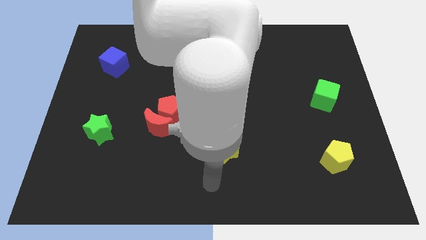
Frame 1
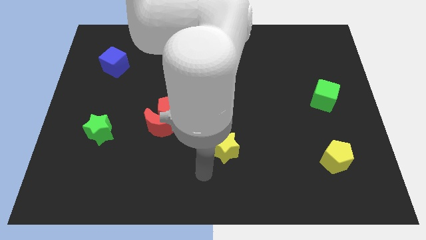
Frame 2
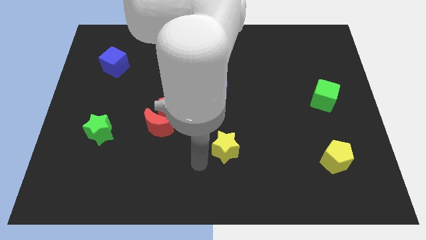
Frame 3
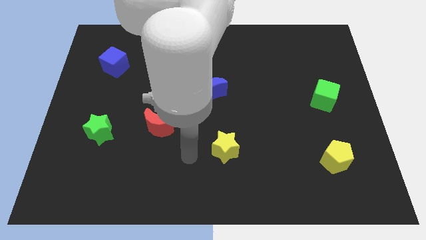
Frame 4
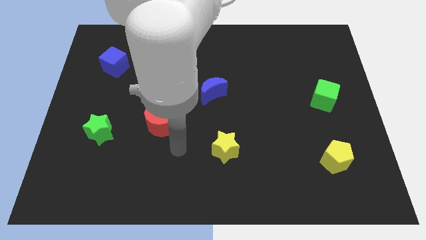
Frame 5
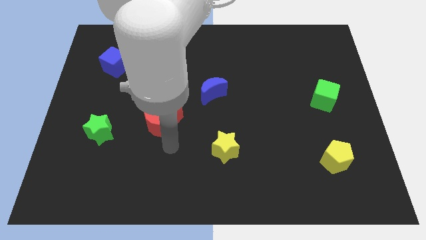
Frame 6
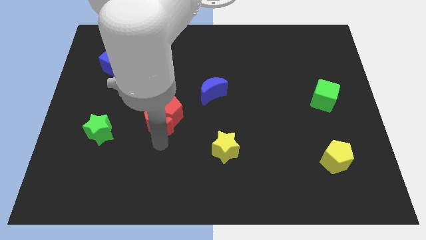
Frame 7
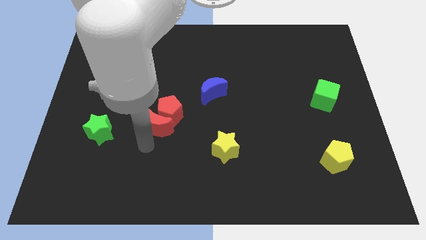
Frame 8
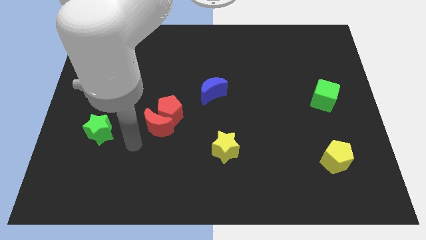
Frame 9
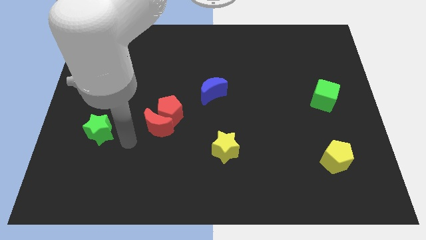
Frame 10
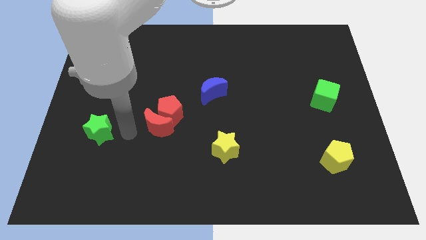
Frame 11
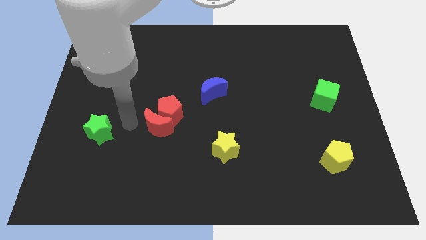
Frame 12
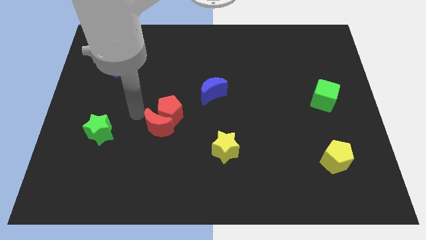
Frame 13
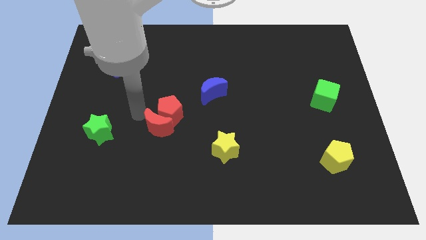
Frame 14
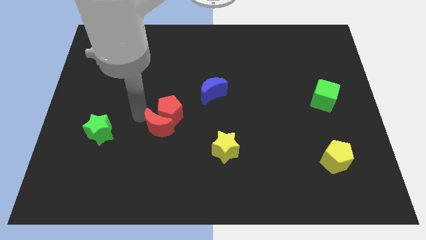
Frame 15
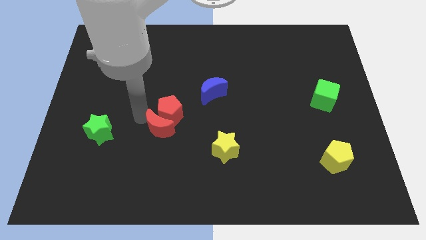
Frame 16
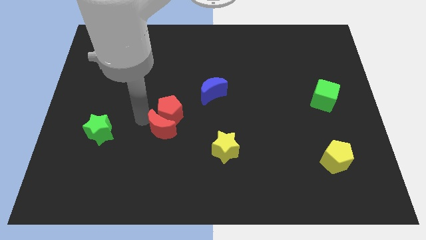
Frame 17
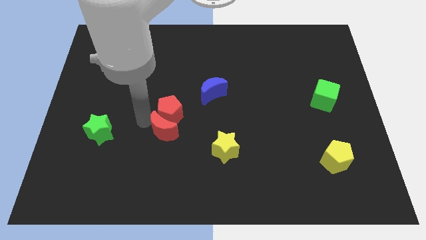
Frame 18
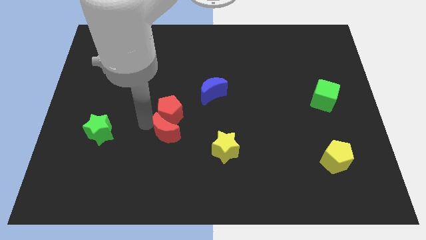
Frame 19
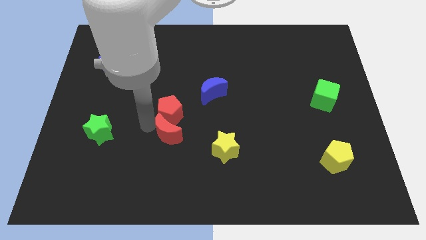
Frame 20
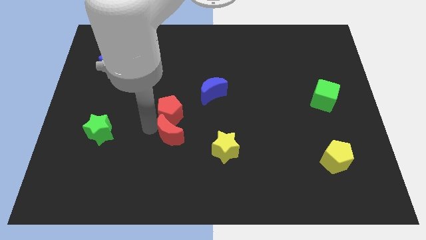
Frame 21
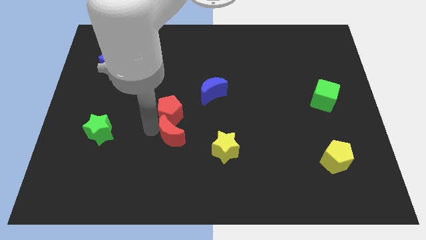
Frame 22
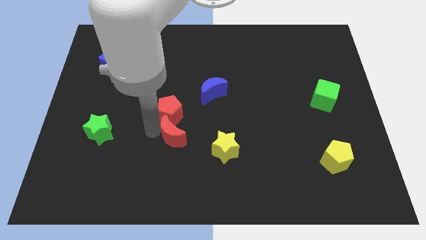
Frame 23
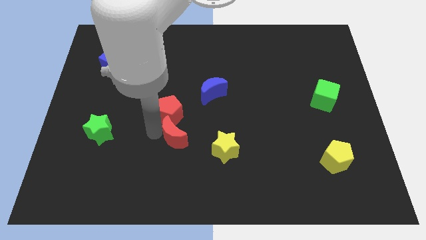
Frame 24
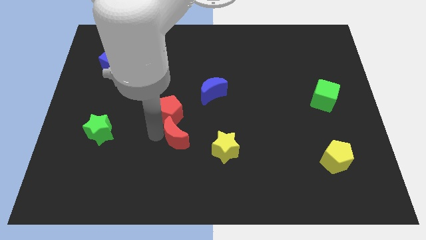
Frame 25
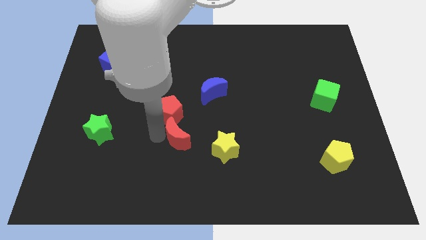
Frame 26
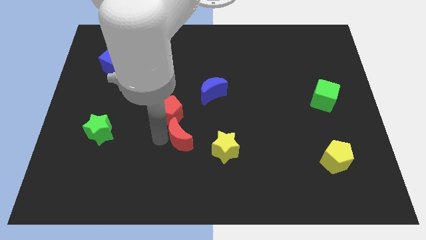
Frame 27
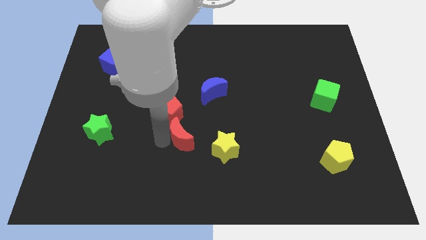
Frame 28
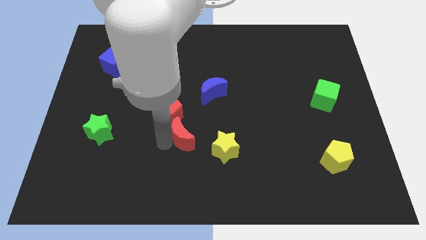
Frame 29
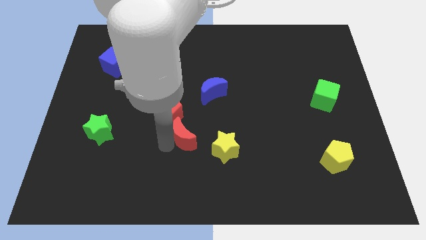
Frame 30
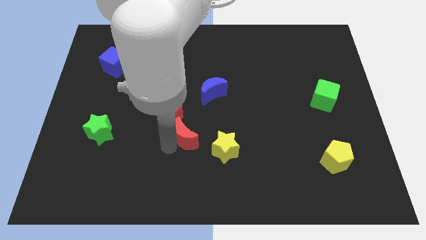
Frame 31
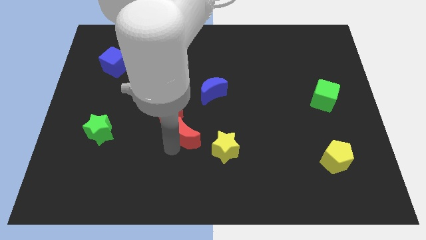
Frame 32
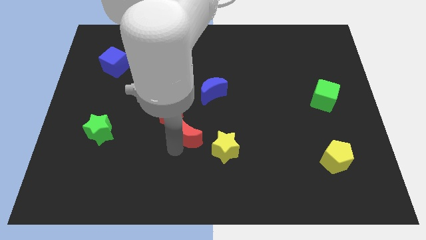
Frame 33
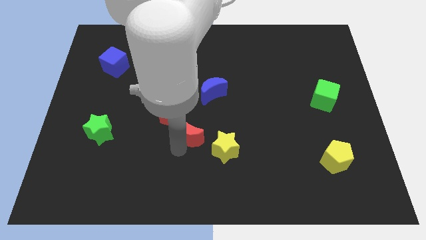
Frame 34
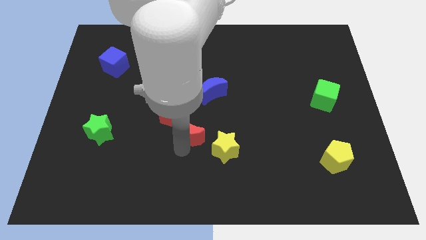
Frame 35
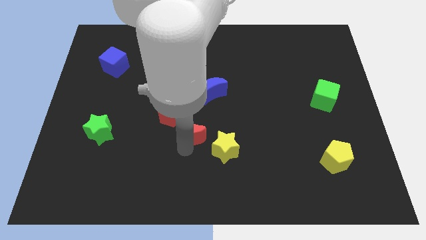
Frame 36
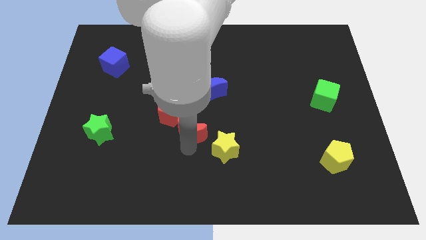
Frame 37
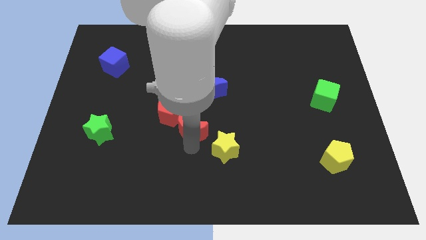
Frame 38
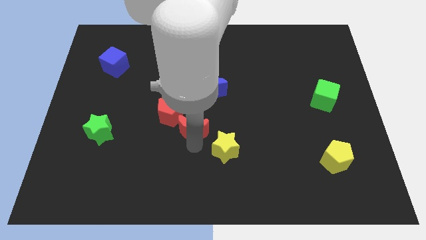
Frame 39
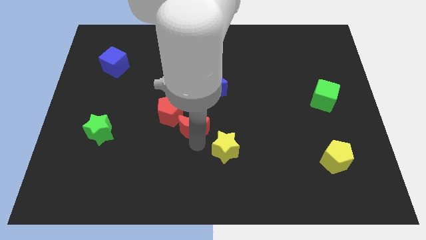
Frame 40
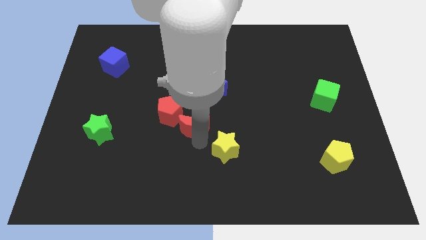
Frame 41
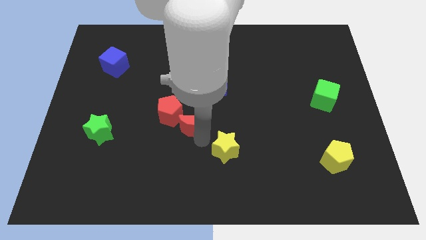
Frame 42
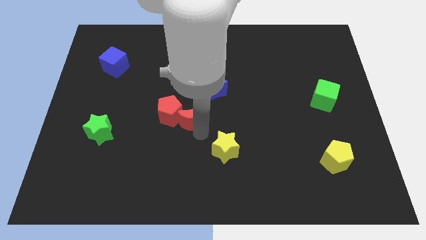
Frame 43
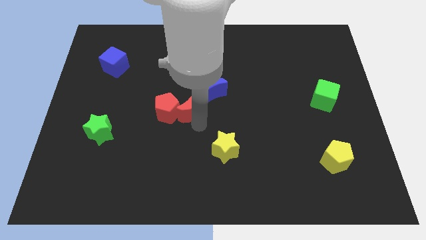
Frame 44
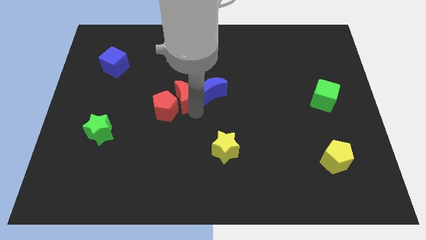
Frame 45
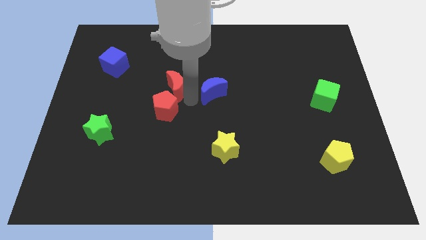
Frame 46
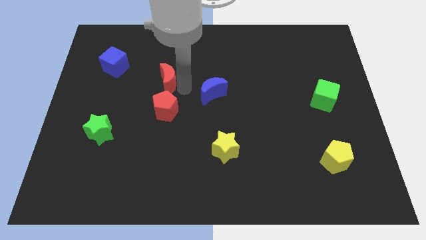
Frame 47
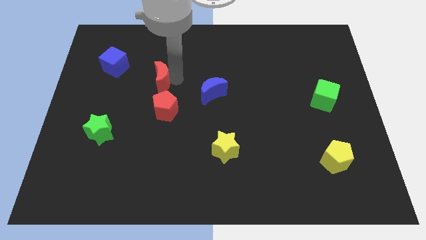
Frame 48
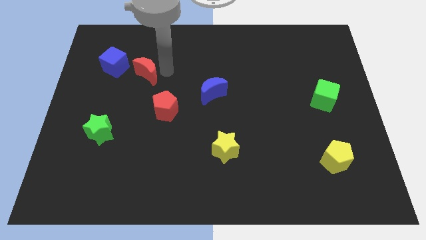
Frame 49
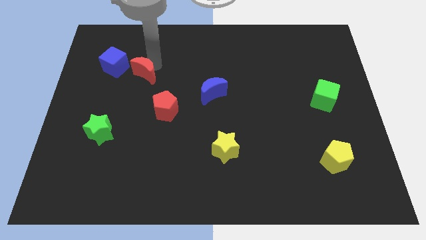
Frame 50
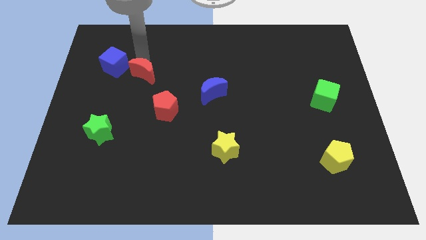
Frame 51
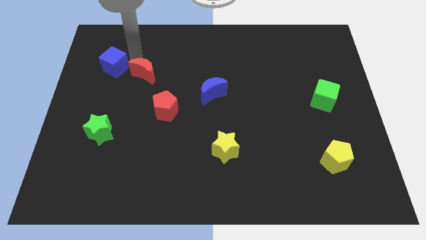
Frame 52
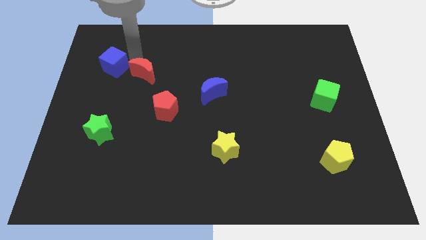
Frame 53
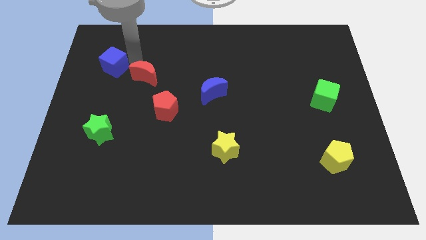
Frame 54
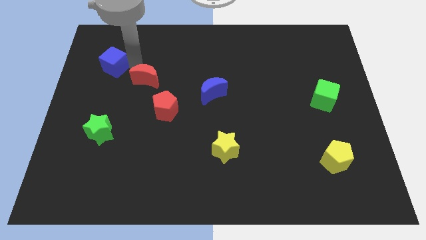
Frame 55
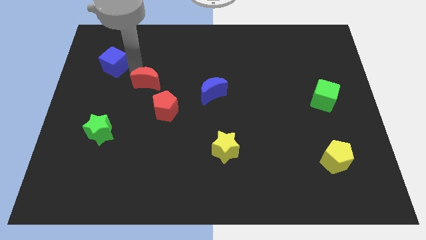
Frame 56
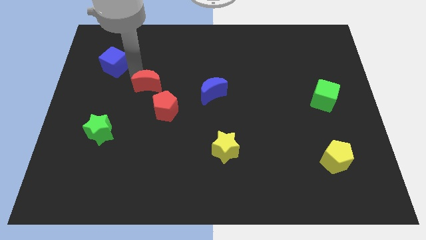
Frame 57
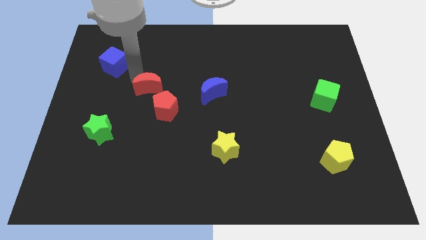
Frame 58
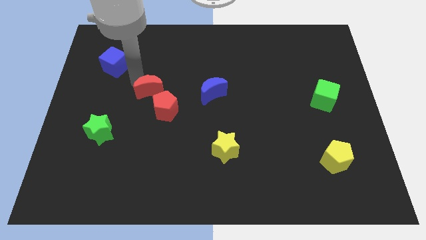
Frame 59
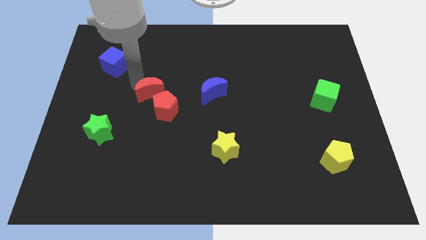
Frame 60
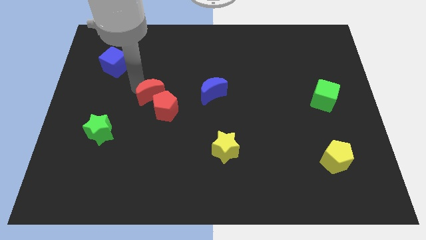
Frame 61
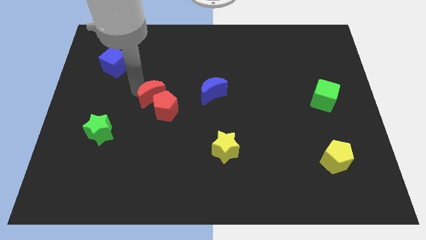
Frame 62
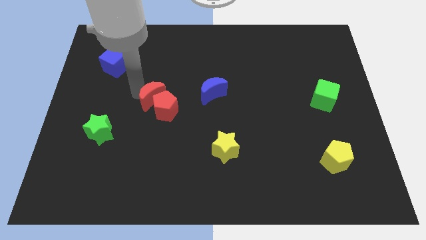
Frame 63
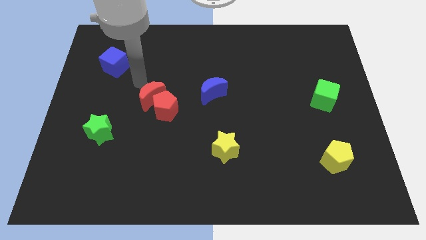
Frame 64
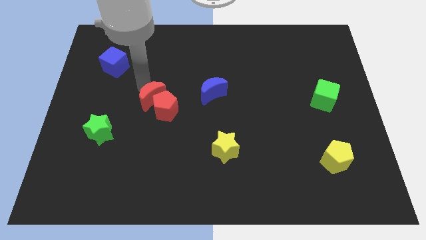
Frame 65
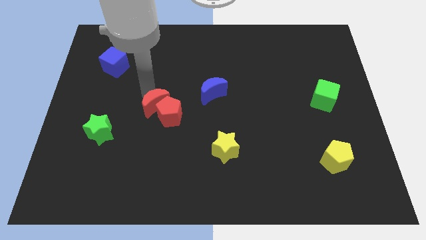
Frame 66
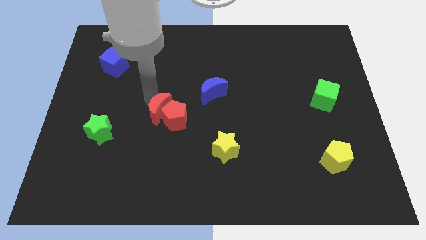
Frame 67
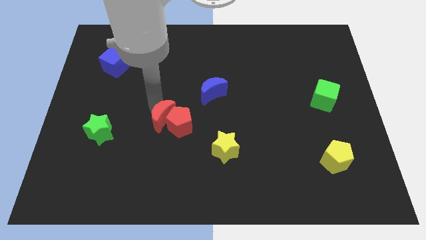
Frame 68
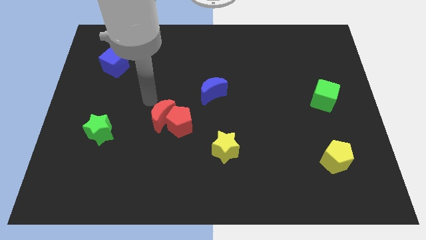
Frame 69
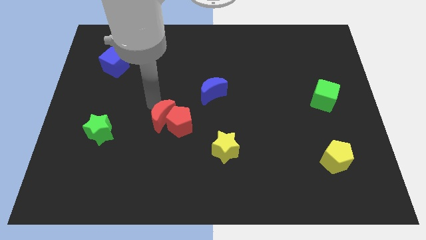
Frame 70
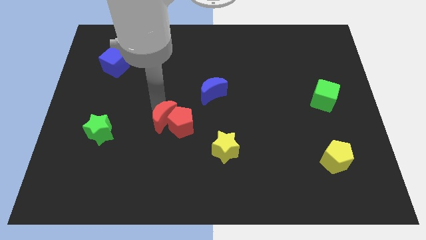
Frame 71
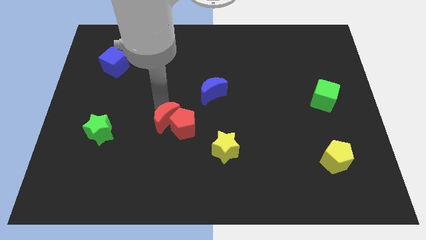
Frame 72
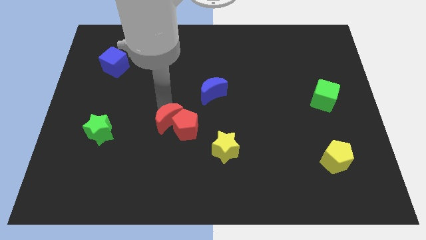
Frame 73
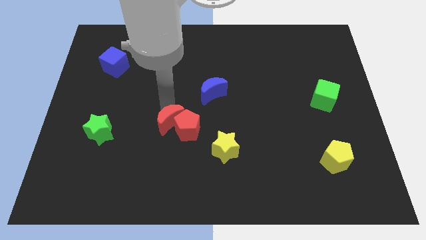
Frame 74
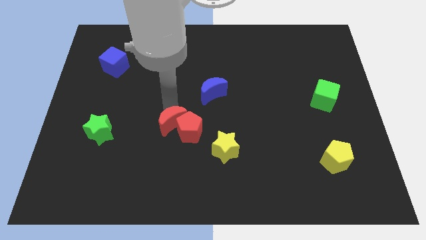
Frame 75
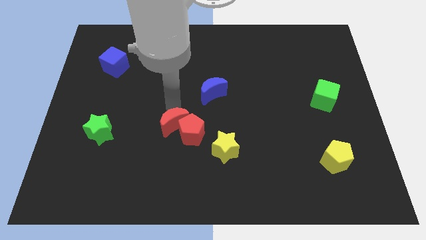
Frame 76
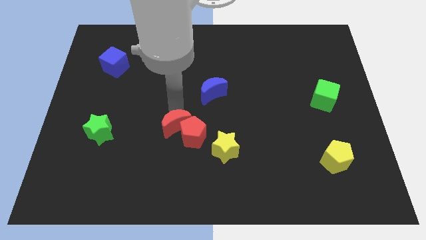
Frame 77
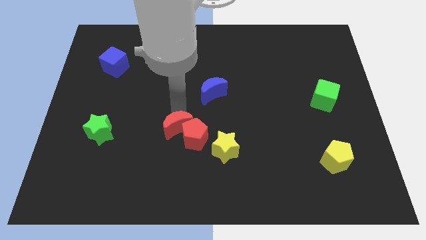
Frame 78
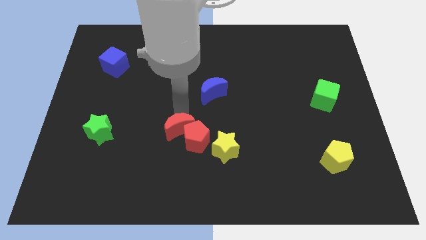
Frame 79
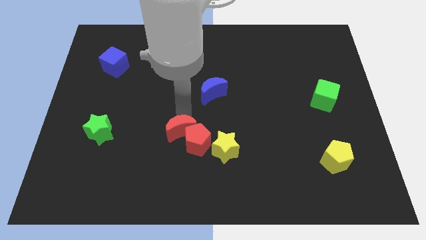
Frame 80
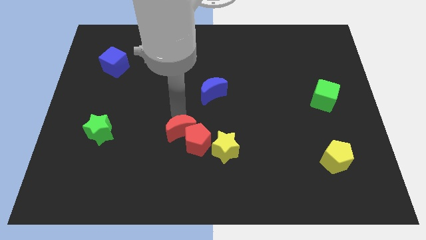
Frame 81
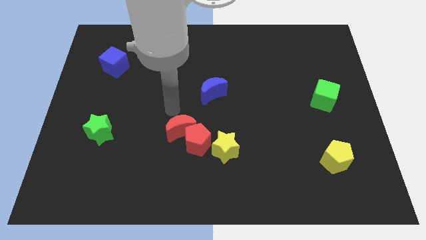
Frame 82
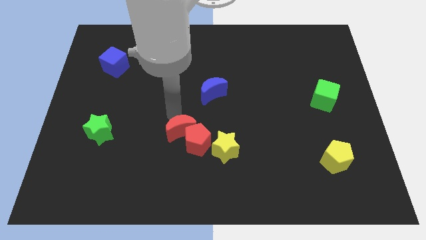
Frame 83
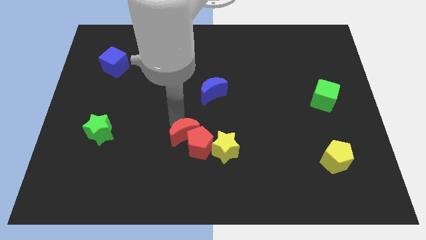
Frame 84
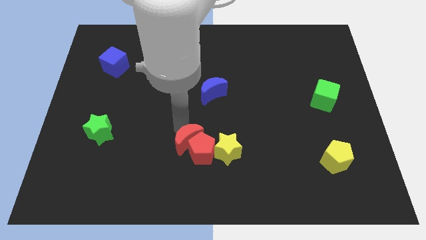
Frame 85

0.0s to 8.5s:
slightly move the red moon downwards and then right
